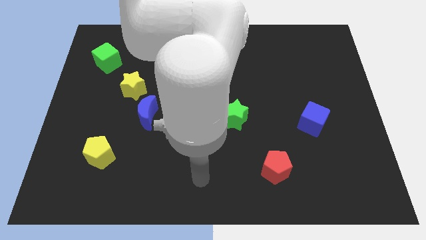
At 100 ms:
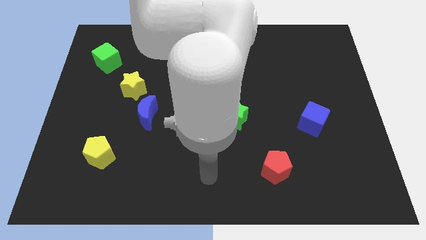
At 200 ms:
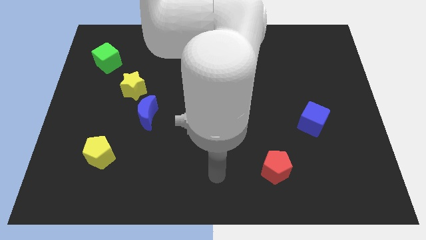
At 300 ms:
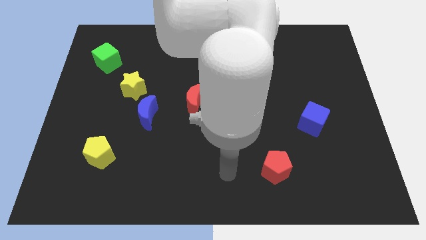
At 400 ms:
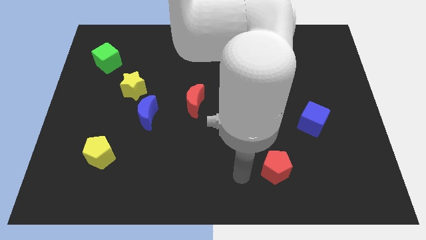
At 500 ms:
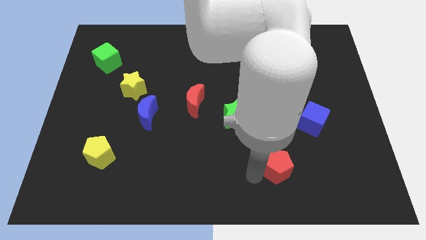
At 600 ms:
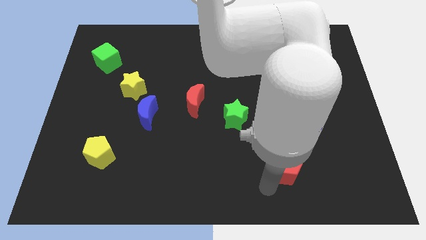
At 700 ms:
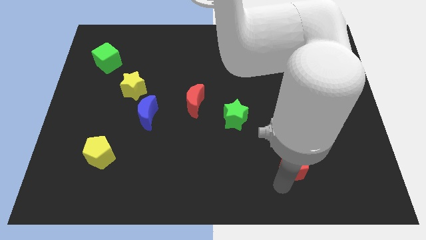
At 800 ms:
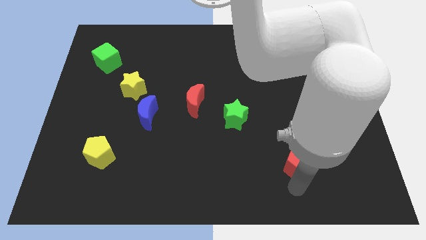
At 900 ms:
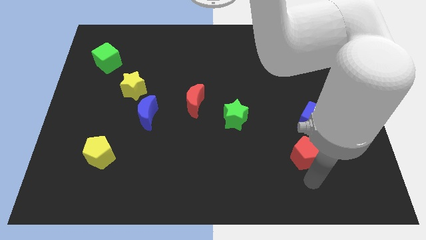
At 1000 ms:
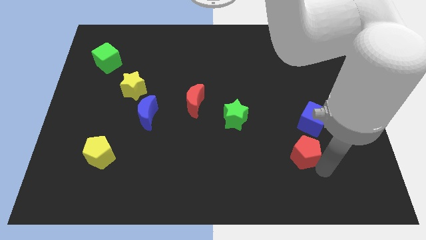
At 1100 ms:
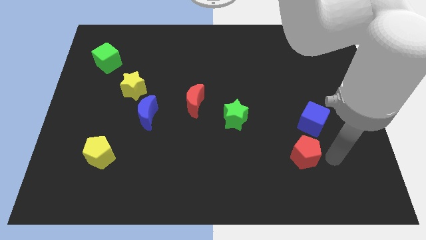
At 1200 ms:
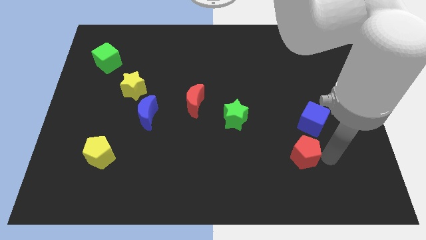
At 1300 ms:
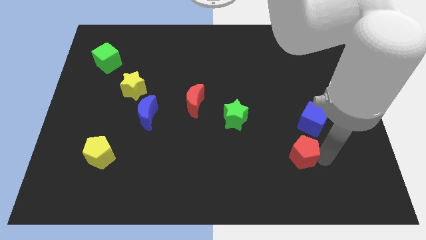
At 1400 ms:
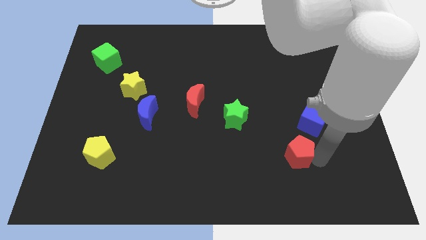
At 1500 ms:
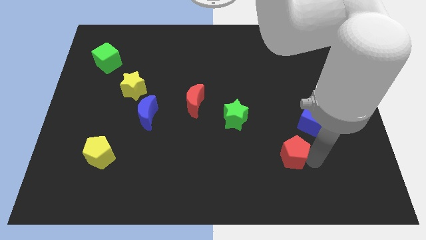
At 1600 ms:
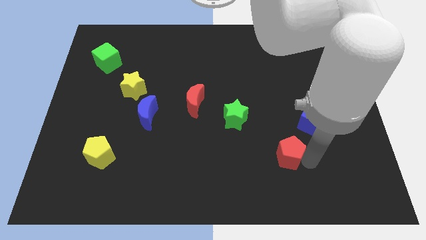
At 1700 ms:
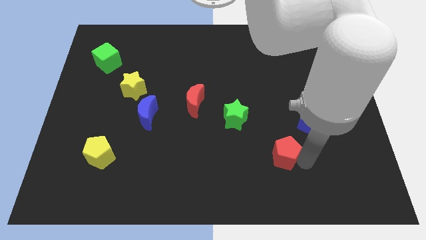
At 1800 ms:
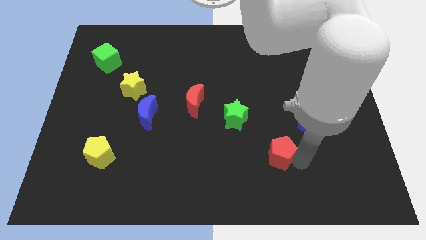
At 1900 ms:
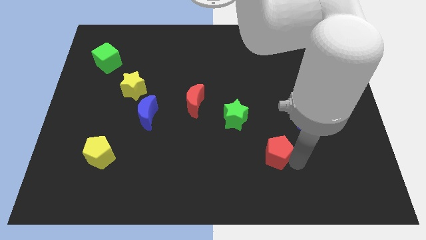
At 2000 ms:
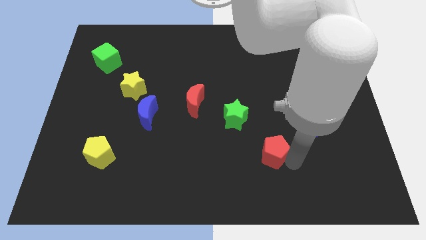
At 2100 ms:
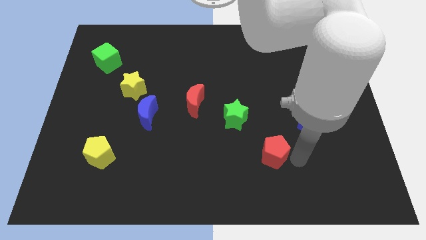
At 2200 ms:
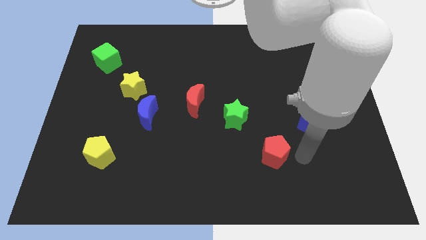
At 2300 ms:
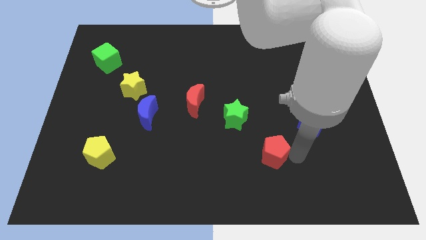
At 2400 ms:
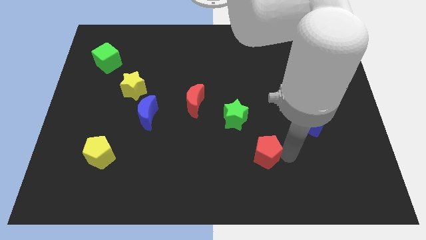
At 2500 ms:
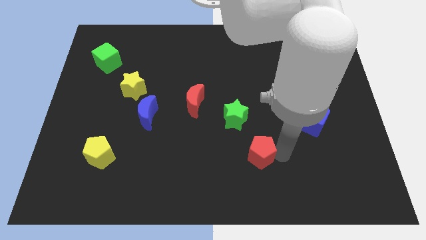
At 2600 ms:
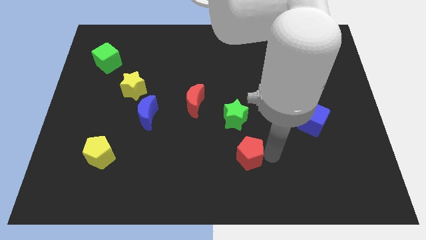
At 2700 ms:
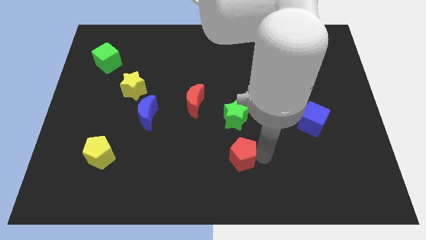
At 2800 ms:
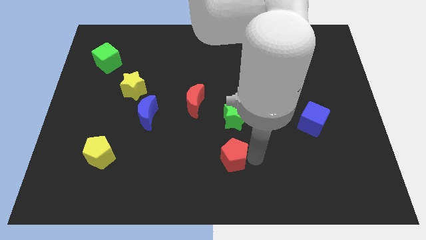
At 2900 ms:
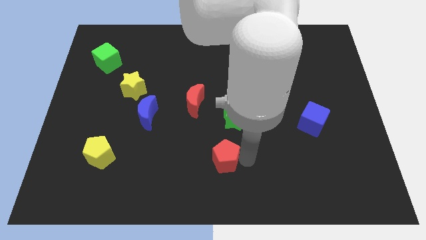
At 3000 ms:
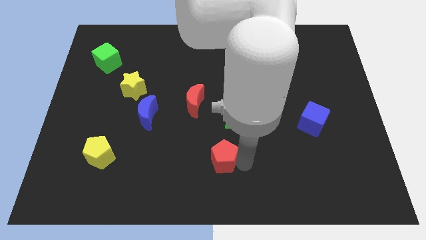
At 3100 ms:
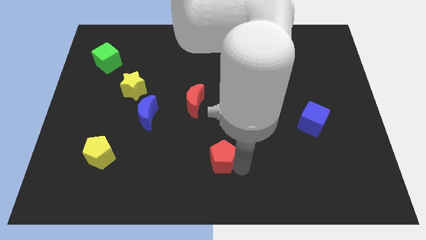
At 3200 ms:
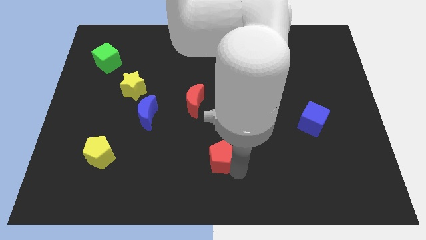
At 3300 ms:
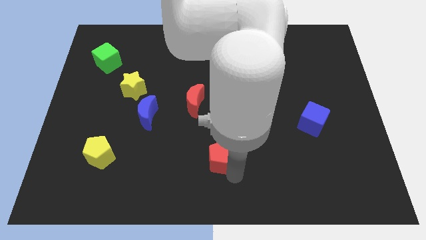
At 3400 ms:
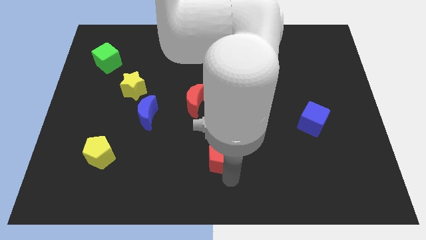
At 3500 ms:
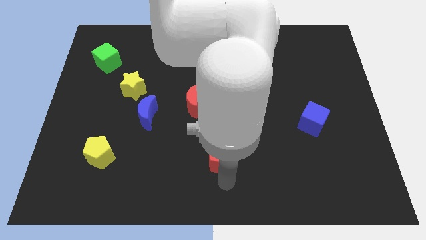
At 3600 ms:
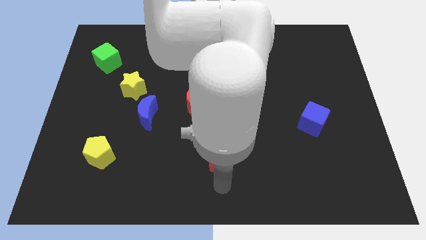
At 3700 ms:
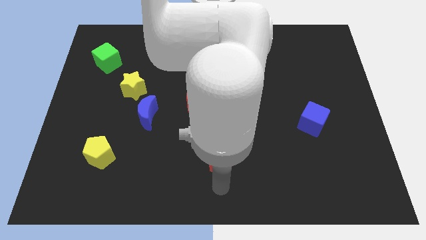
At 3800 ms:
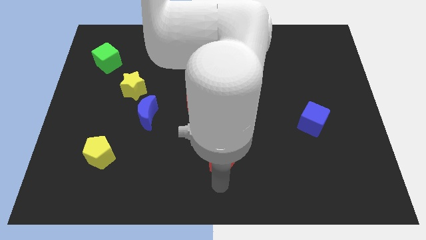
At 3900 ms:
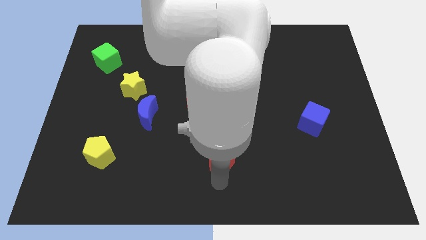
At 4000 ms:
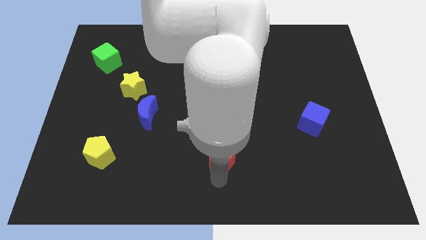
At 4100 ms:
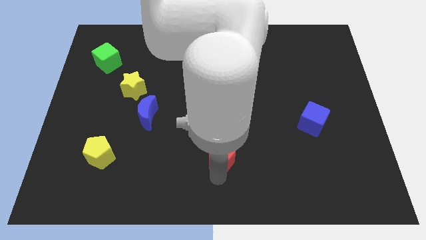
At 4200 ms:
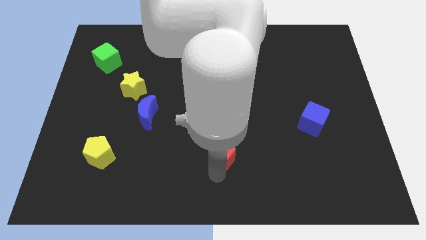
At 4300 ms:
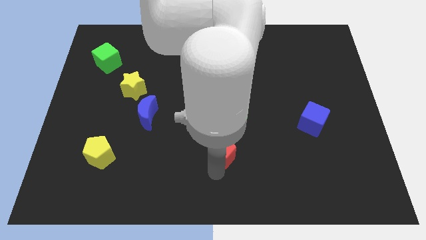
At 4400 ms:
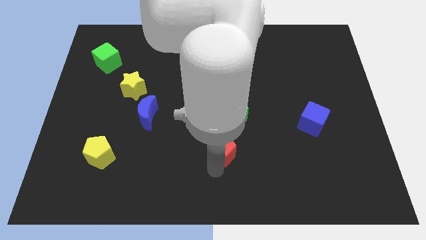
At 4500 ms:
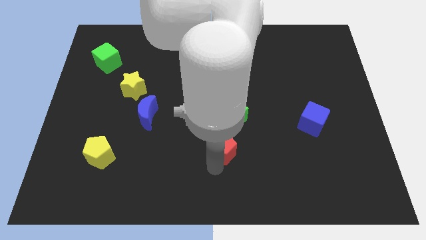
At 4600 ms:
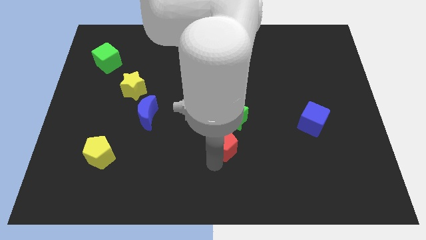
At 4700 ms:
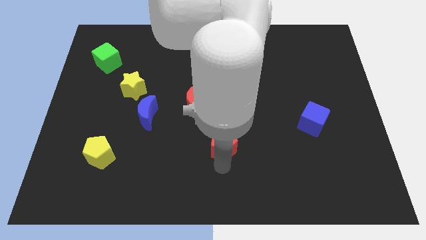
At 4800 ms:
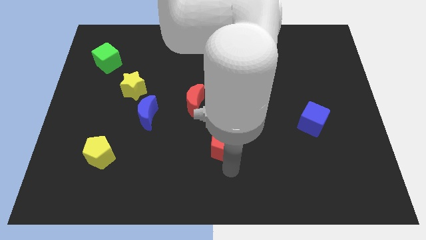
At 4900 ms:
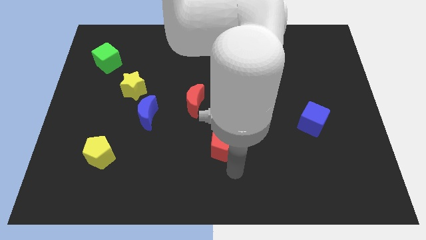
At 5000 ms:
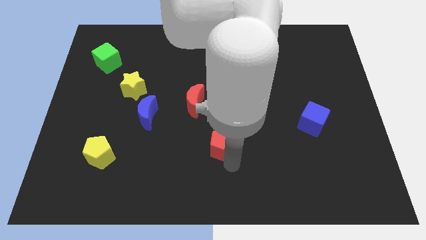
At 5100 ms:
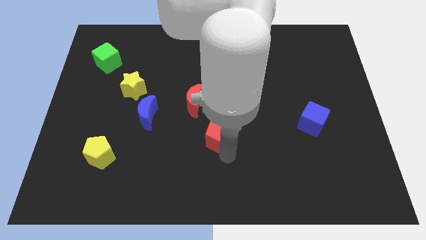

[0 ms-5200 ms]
push the red pentagon to the middle of the board

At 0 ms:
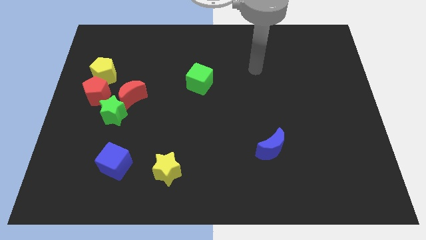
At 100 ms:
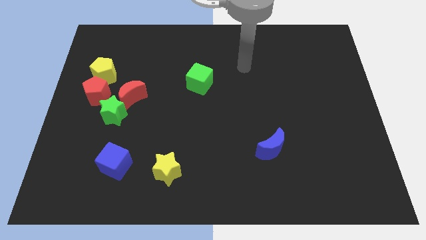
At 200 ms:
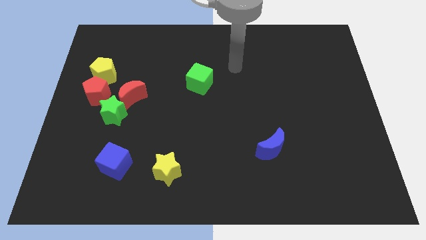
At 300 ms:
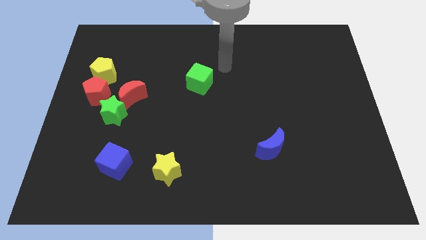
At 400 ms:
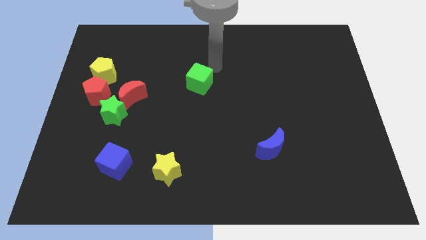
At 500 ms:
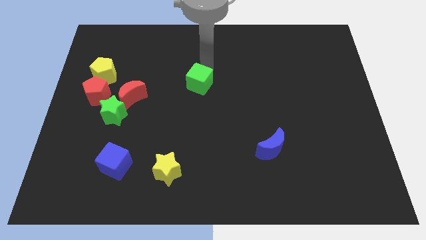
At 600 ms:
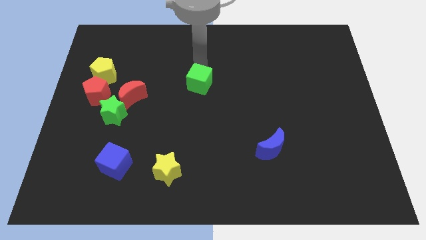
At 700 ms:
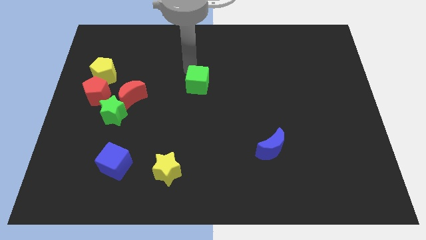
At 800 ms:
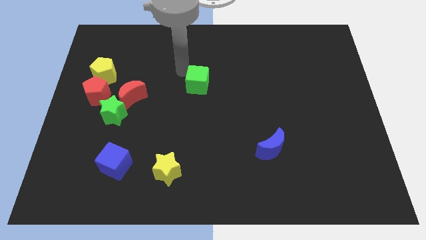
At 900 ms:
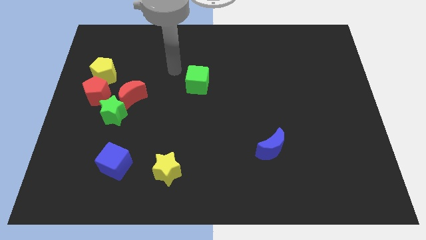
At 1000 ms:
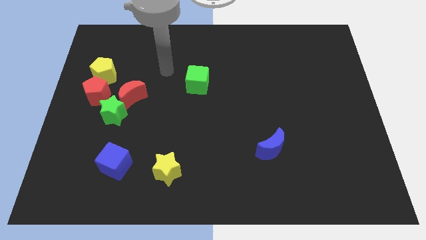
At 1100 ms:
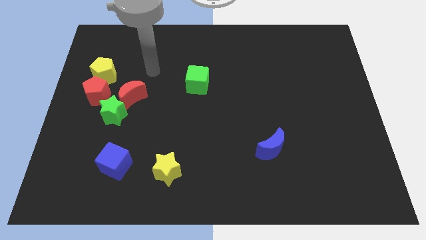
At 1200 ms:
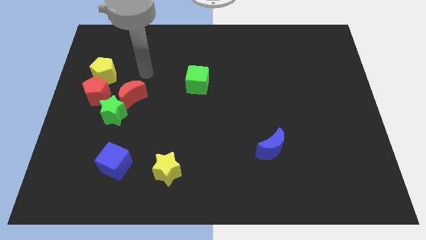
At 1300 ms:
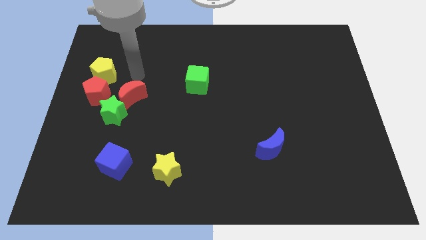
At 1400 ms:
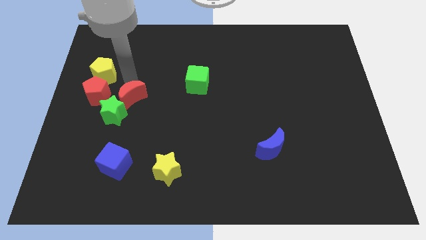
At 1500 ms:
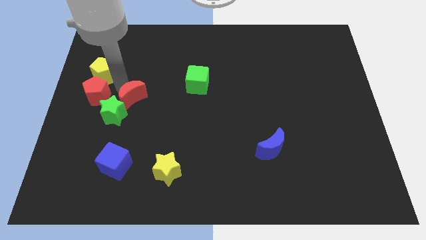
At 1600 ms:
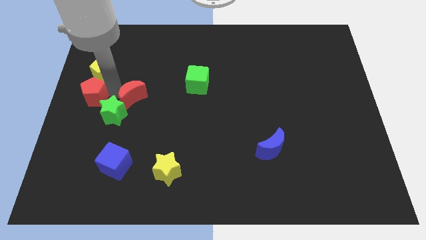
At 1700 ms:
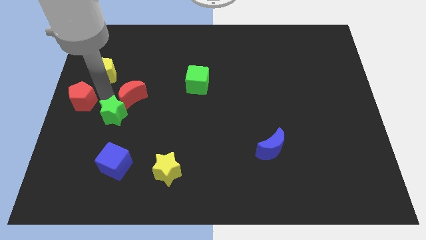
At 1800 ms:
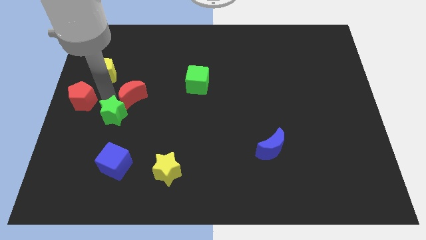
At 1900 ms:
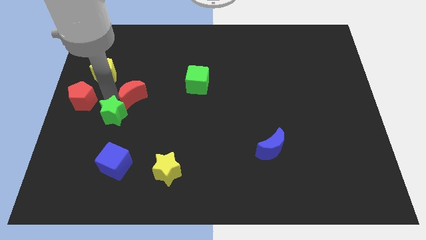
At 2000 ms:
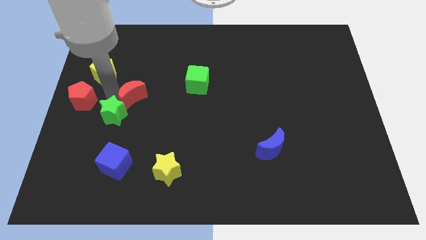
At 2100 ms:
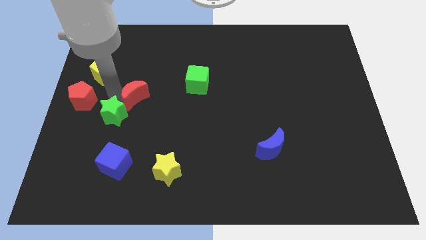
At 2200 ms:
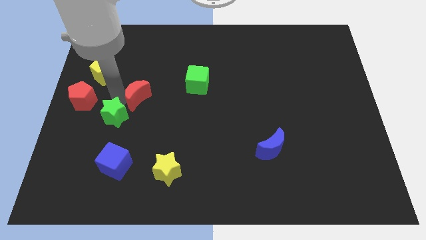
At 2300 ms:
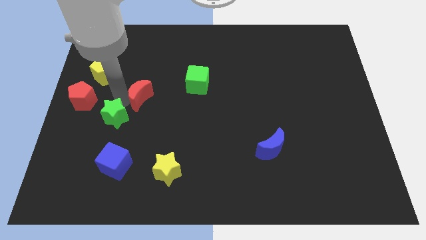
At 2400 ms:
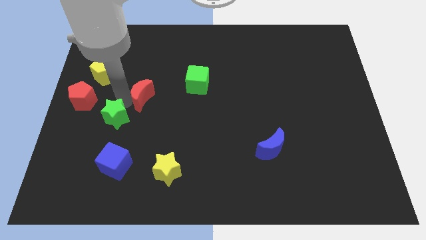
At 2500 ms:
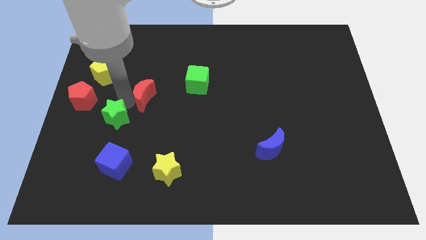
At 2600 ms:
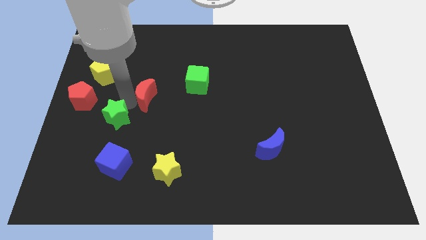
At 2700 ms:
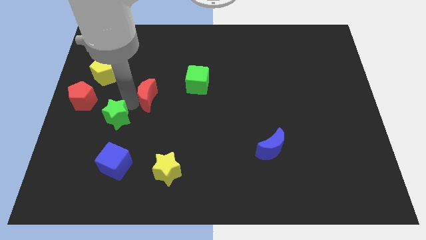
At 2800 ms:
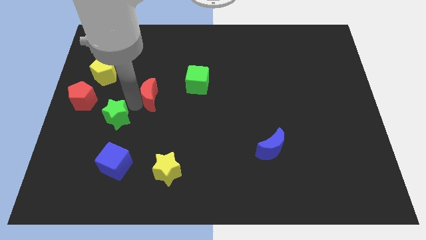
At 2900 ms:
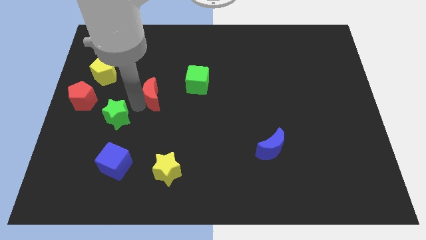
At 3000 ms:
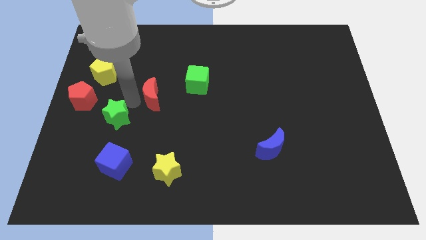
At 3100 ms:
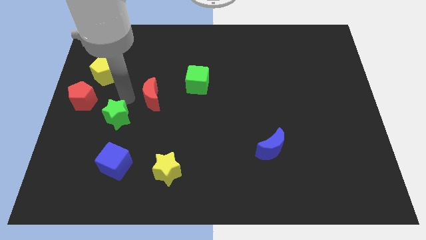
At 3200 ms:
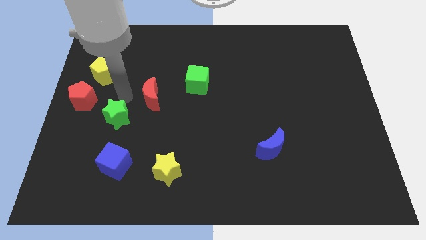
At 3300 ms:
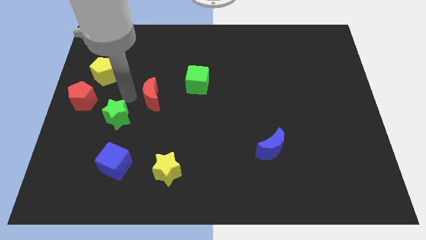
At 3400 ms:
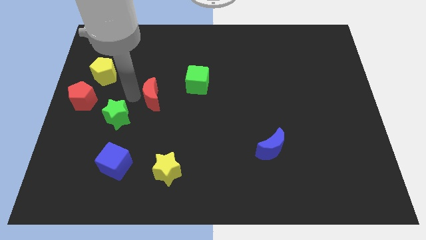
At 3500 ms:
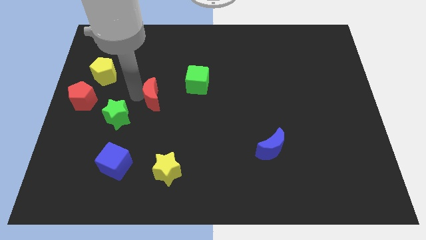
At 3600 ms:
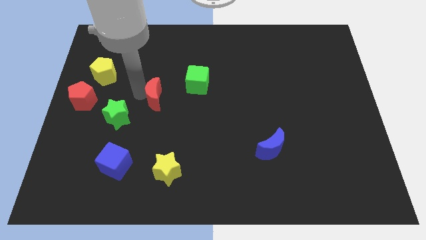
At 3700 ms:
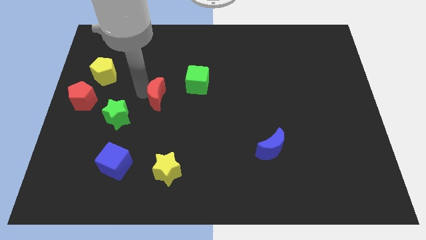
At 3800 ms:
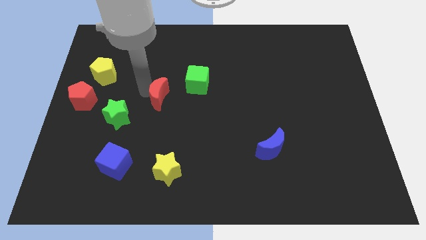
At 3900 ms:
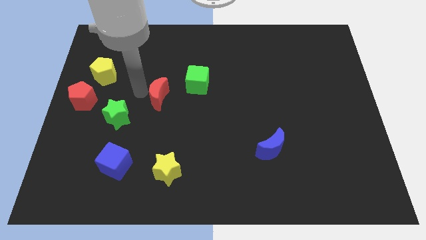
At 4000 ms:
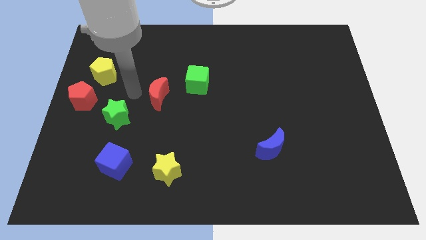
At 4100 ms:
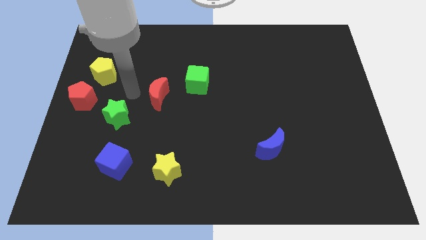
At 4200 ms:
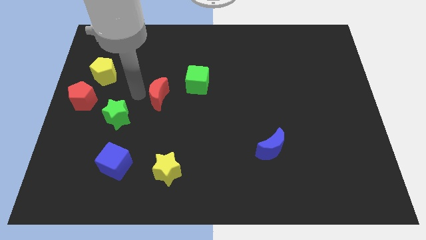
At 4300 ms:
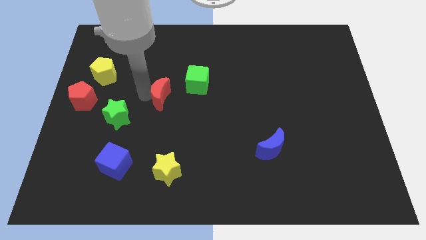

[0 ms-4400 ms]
move the red moon to the center
